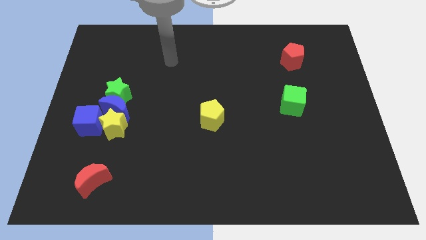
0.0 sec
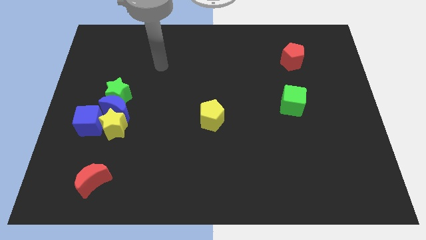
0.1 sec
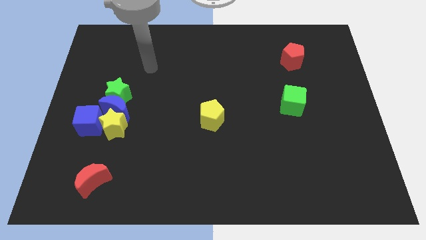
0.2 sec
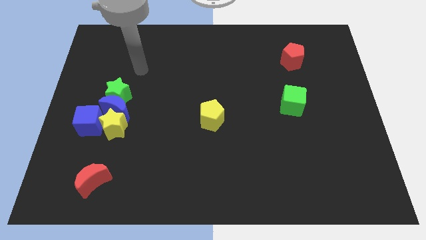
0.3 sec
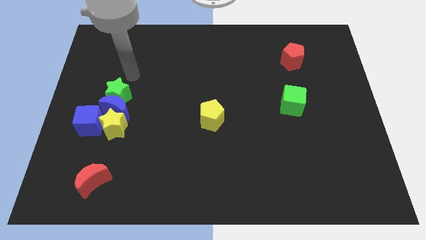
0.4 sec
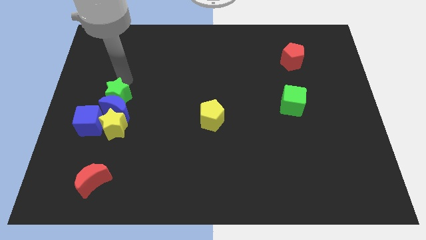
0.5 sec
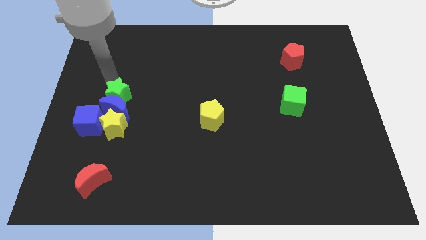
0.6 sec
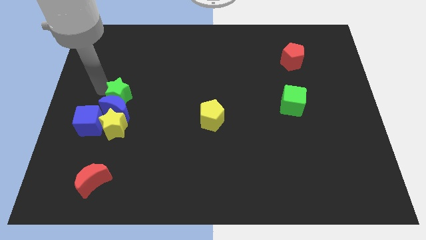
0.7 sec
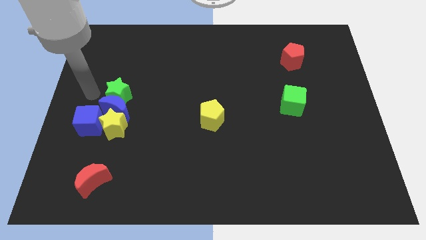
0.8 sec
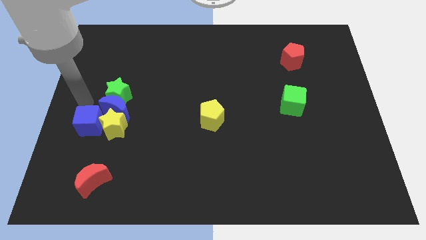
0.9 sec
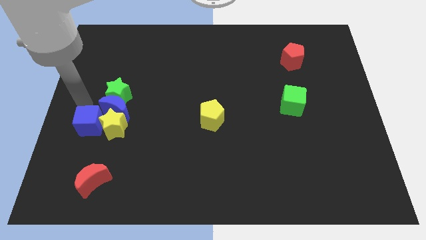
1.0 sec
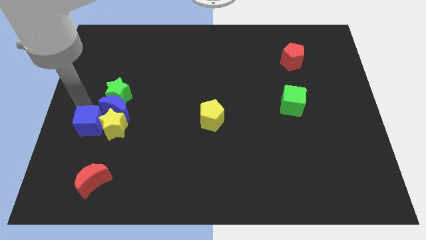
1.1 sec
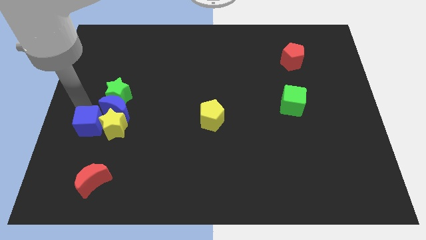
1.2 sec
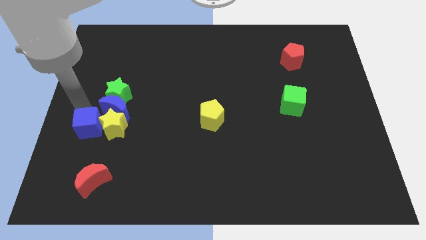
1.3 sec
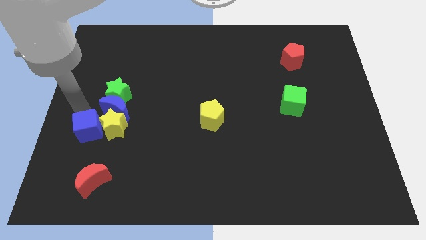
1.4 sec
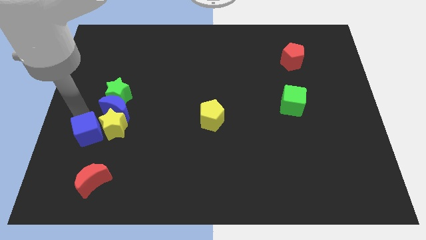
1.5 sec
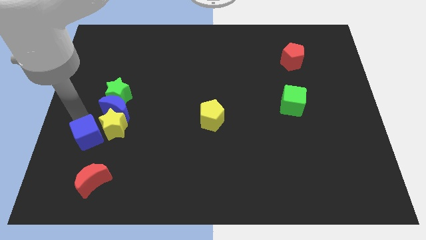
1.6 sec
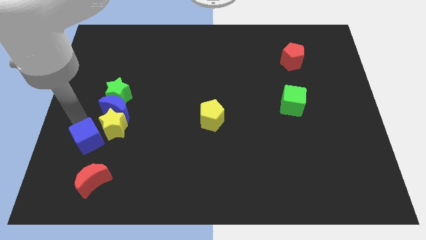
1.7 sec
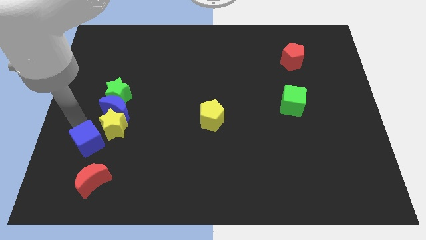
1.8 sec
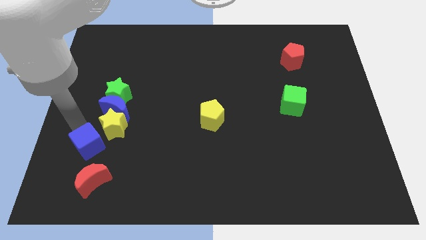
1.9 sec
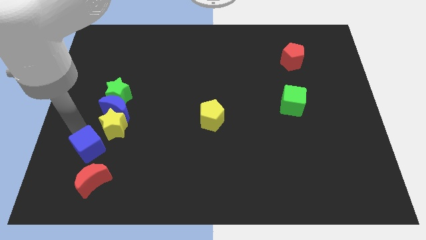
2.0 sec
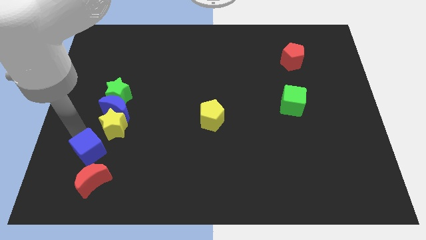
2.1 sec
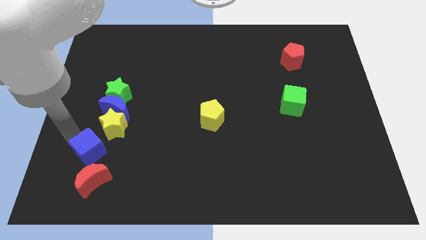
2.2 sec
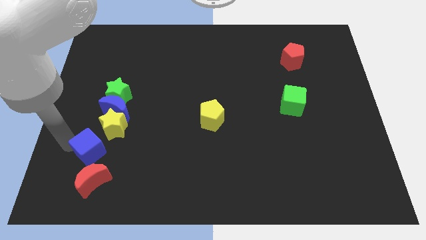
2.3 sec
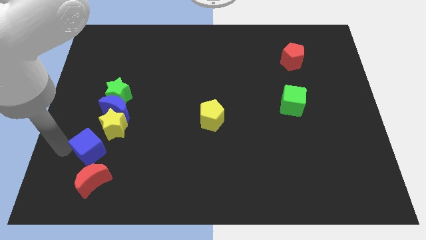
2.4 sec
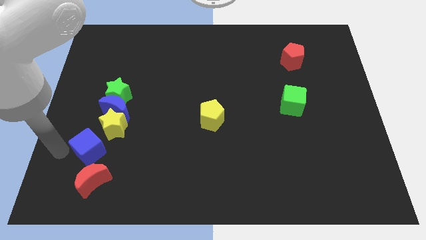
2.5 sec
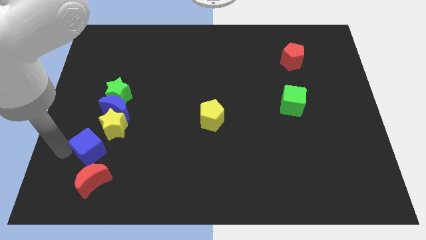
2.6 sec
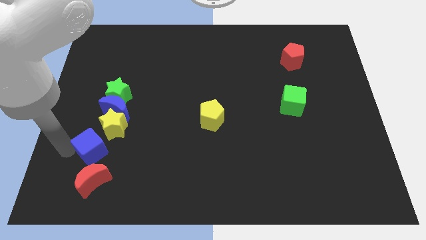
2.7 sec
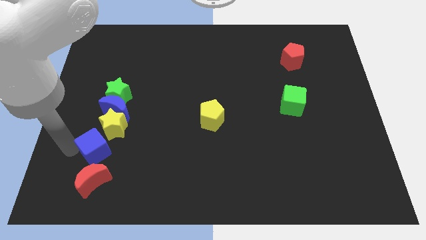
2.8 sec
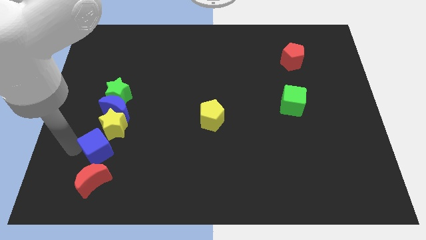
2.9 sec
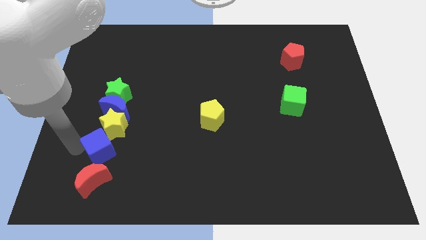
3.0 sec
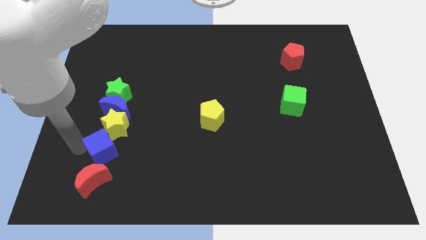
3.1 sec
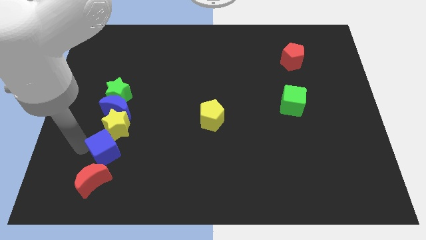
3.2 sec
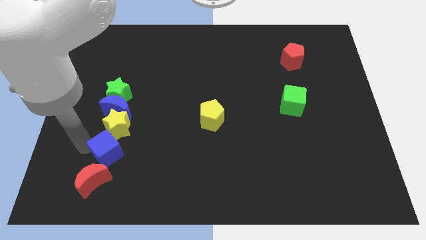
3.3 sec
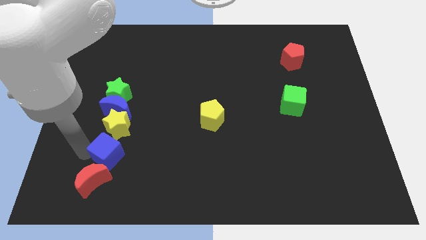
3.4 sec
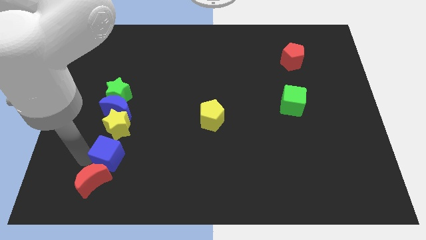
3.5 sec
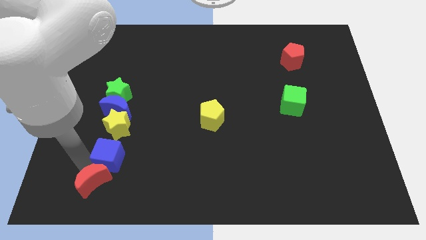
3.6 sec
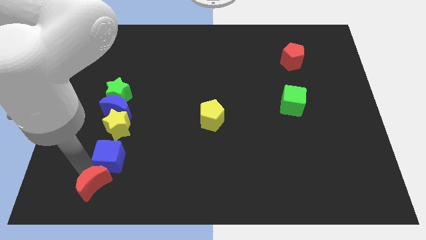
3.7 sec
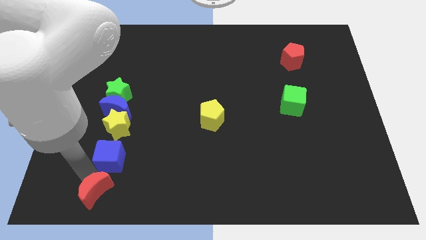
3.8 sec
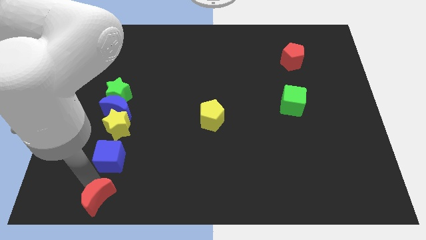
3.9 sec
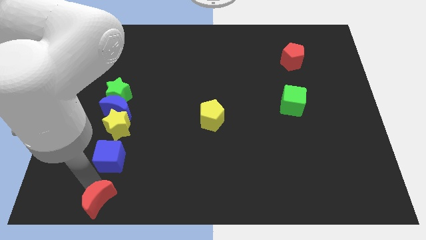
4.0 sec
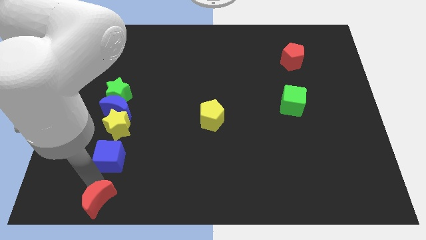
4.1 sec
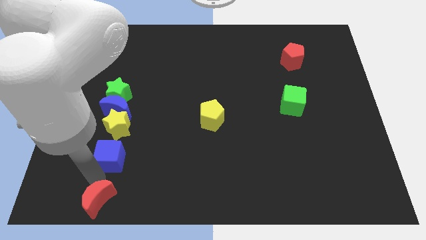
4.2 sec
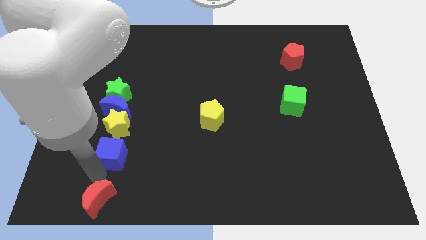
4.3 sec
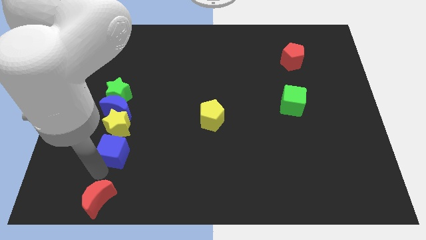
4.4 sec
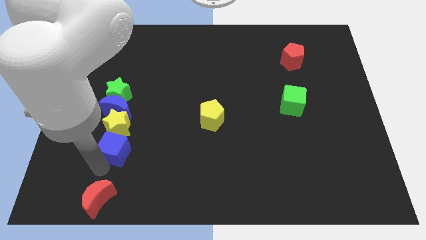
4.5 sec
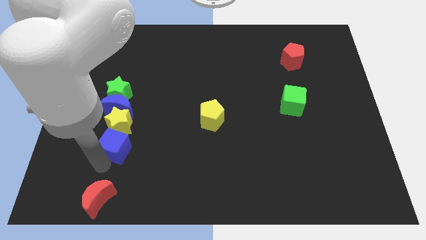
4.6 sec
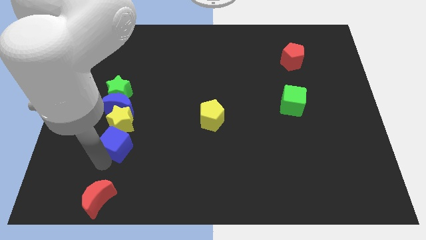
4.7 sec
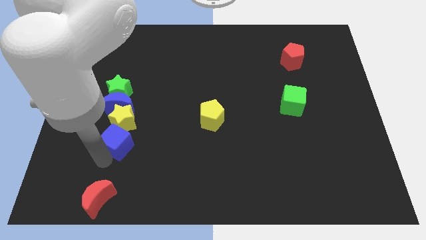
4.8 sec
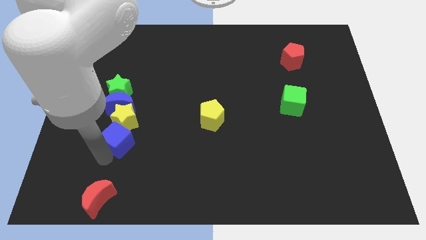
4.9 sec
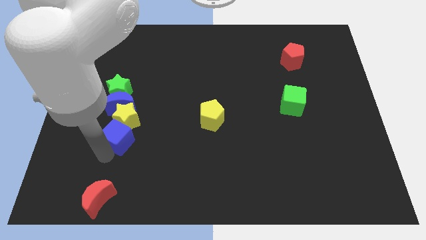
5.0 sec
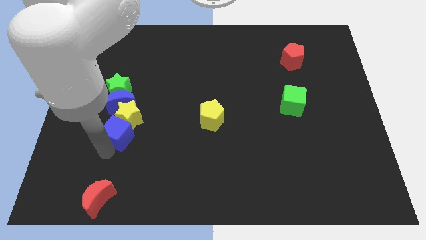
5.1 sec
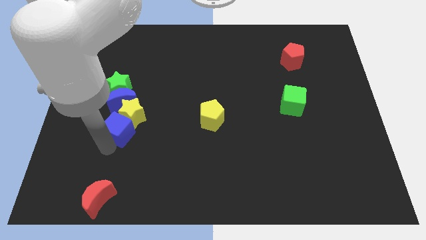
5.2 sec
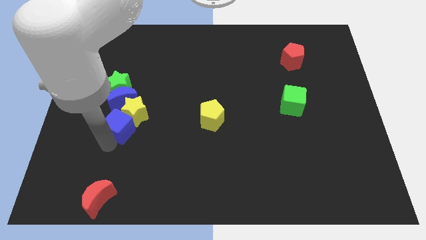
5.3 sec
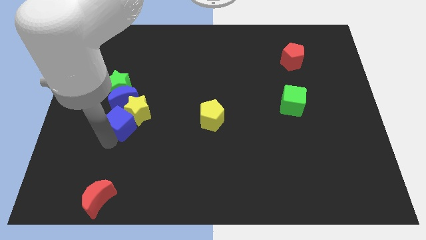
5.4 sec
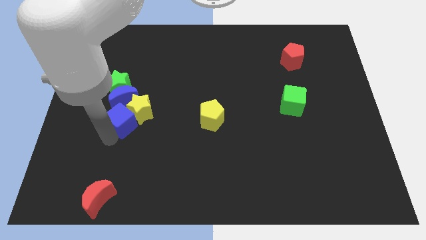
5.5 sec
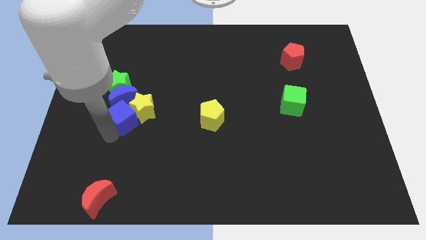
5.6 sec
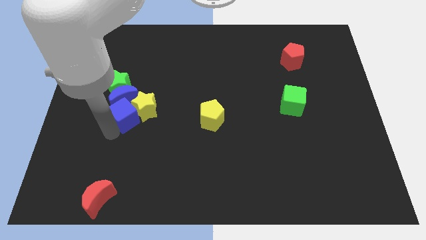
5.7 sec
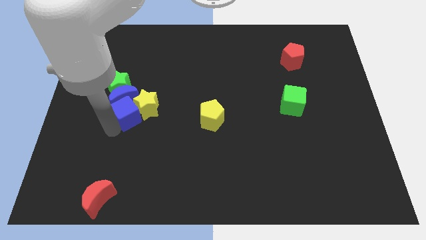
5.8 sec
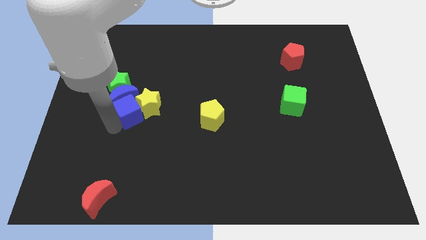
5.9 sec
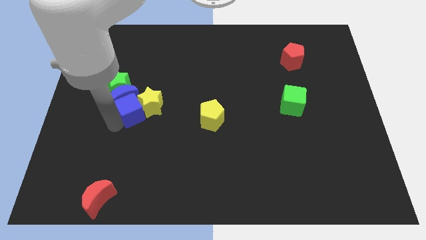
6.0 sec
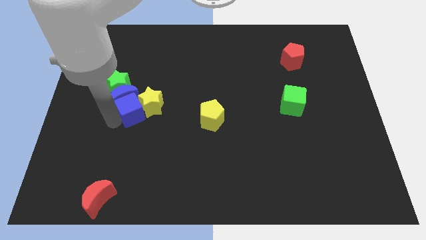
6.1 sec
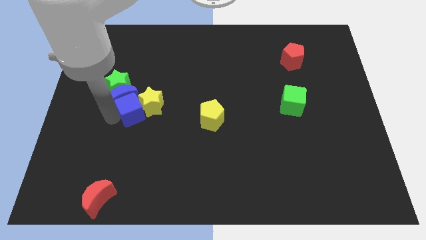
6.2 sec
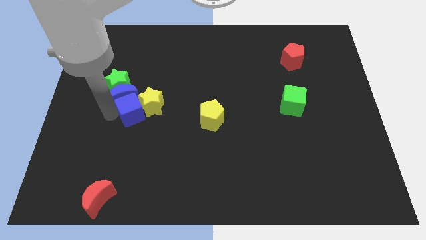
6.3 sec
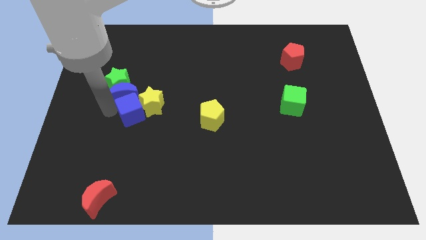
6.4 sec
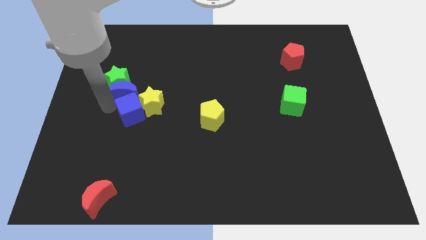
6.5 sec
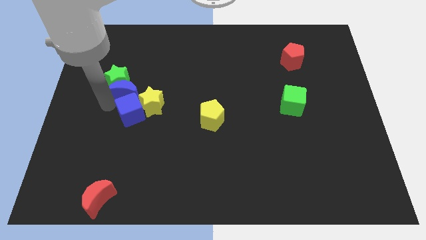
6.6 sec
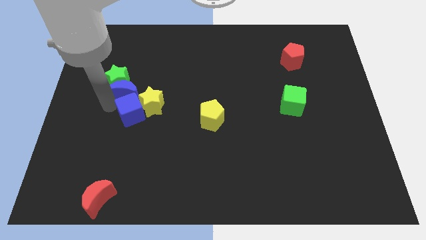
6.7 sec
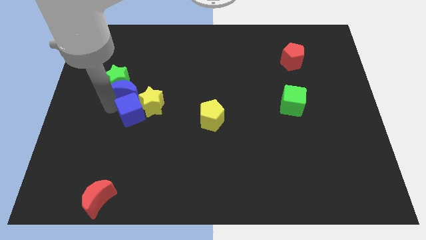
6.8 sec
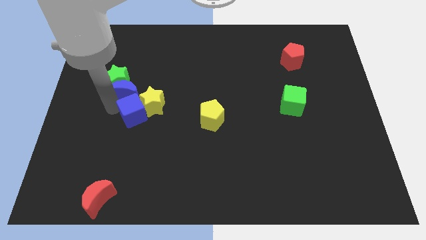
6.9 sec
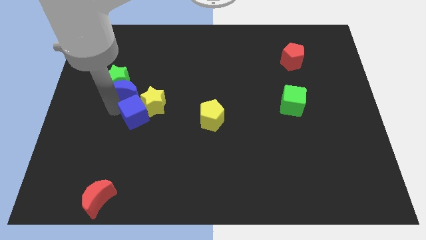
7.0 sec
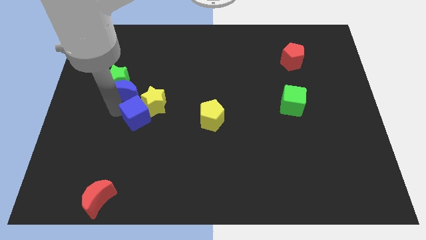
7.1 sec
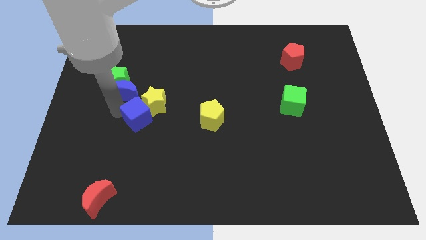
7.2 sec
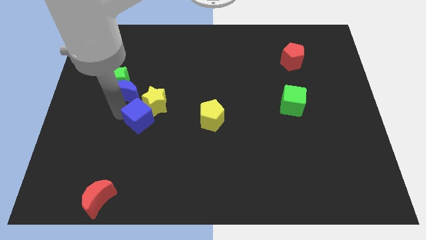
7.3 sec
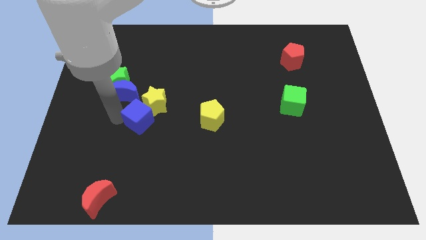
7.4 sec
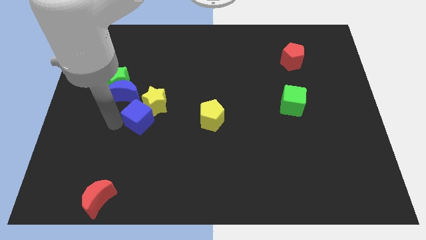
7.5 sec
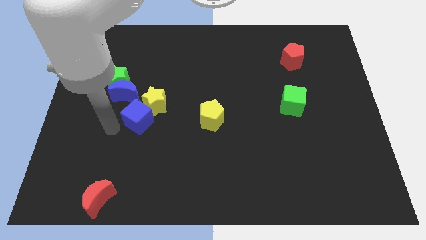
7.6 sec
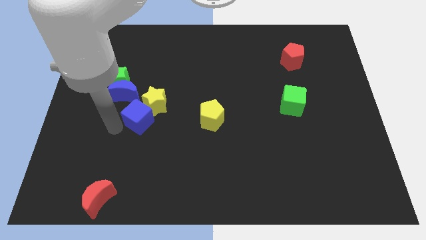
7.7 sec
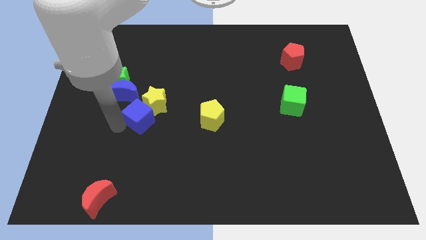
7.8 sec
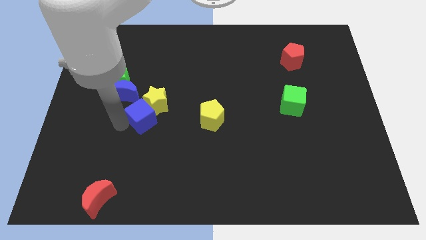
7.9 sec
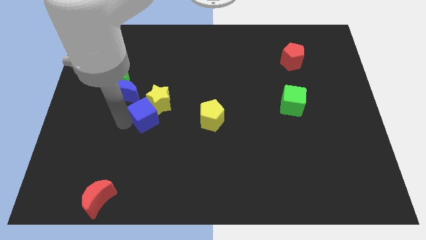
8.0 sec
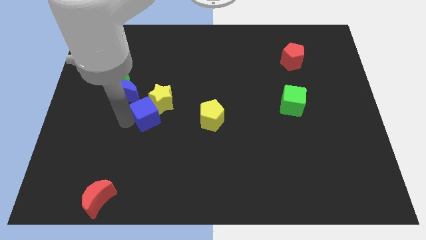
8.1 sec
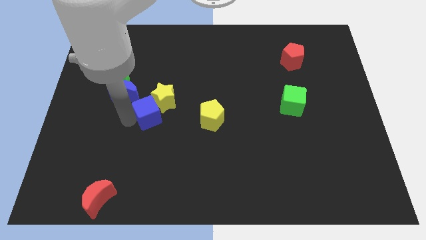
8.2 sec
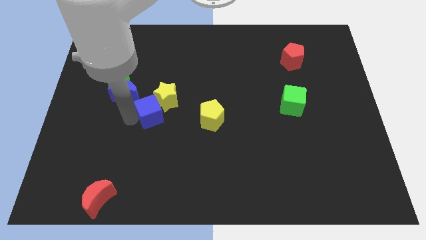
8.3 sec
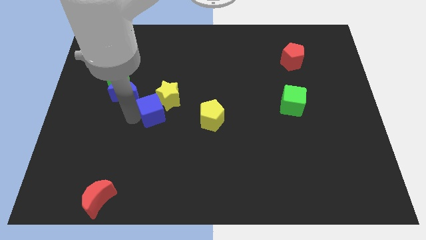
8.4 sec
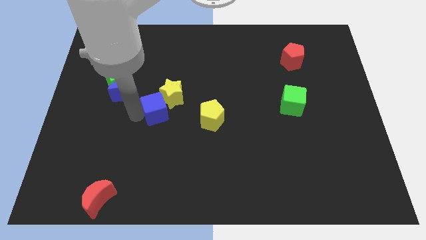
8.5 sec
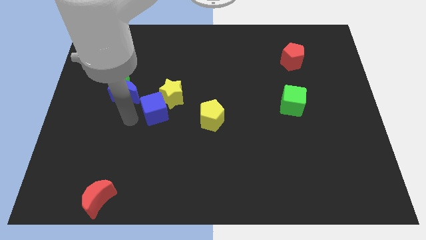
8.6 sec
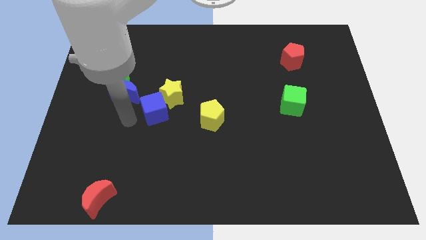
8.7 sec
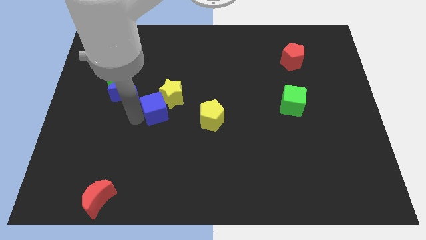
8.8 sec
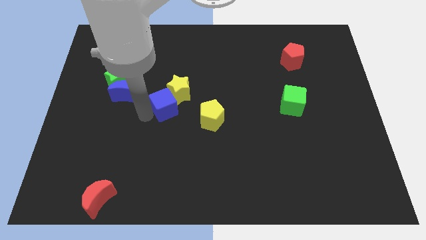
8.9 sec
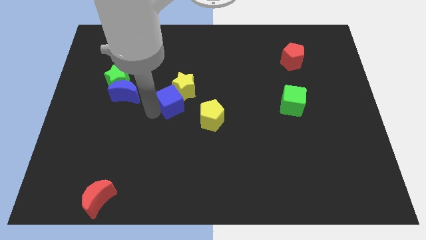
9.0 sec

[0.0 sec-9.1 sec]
slide the blue cube diagonally up and to the left of the yellow pentagon
